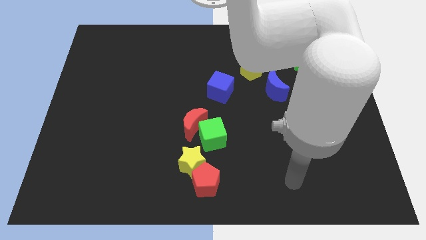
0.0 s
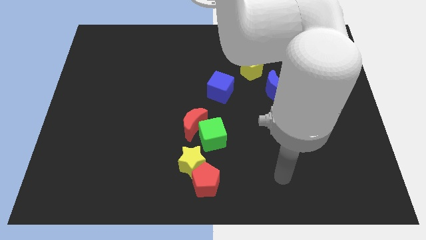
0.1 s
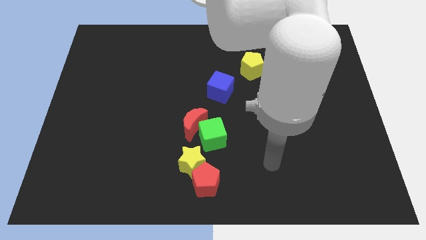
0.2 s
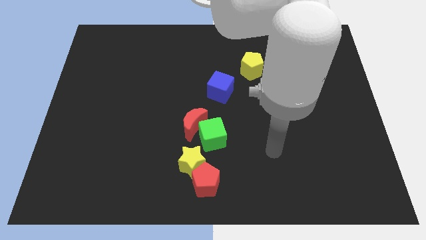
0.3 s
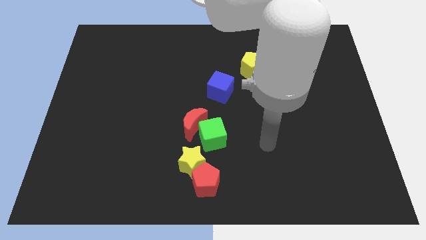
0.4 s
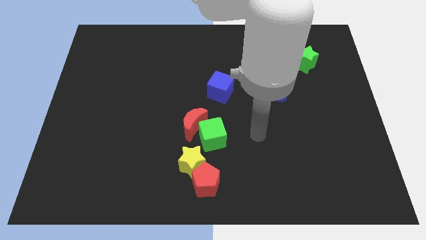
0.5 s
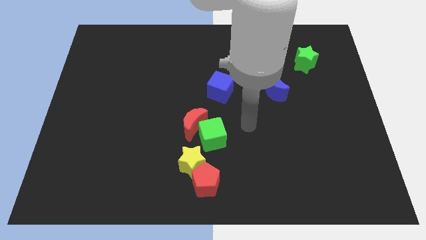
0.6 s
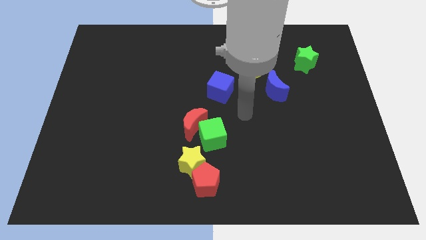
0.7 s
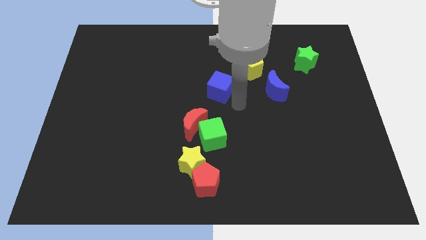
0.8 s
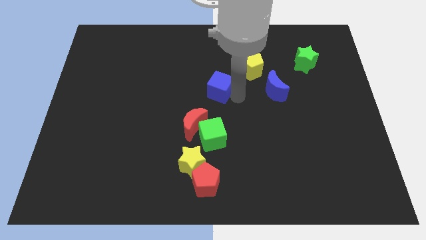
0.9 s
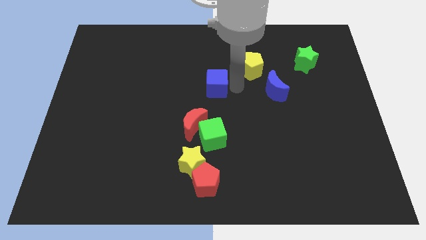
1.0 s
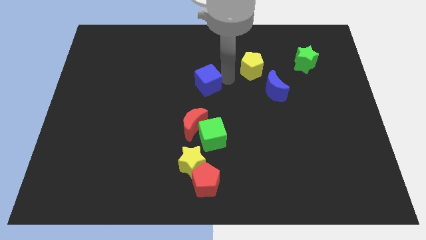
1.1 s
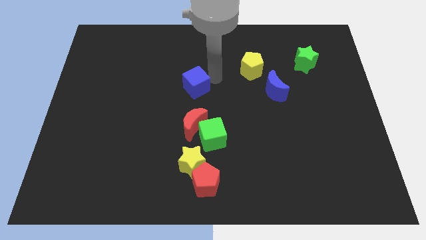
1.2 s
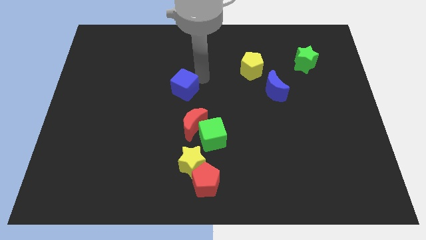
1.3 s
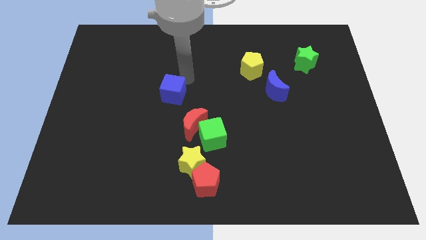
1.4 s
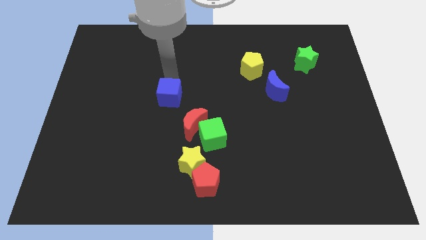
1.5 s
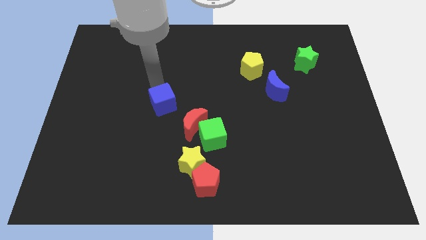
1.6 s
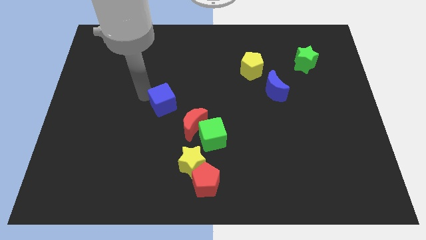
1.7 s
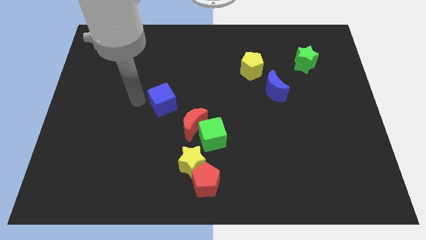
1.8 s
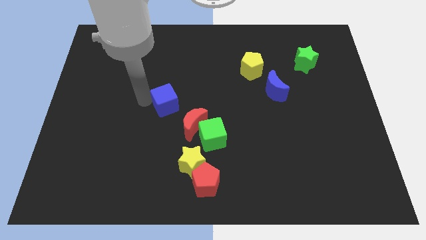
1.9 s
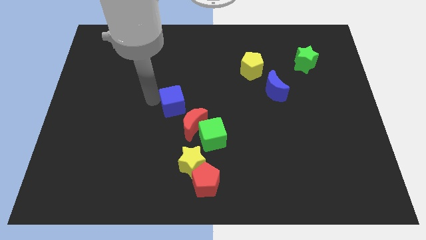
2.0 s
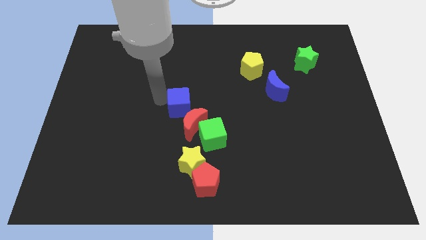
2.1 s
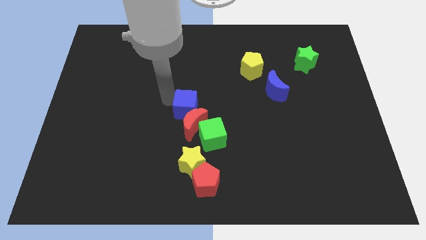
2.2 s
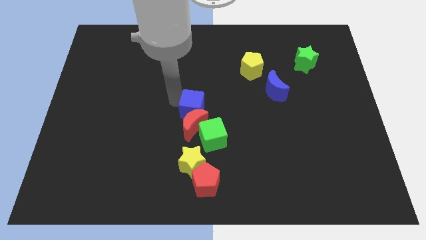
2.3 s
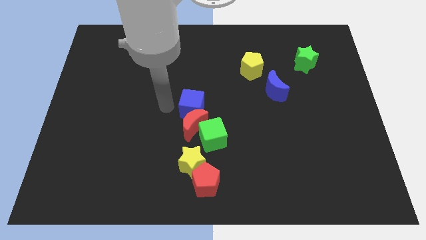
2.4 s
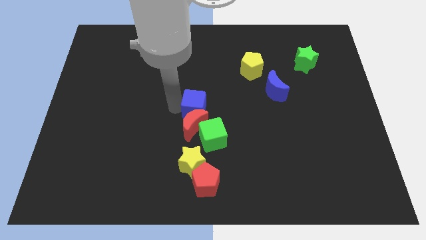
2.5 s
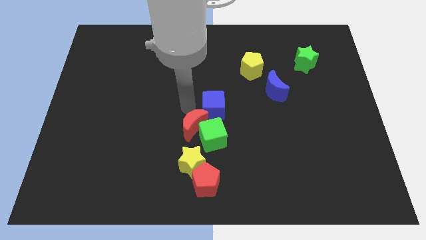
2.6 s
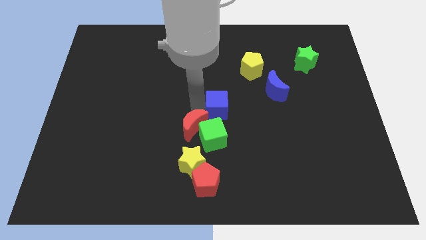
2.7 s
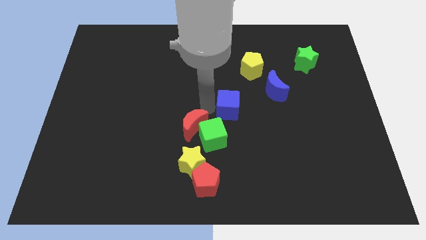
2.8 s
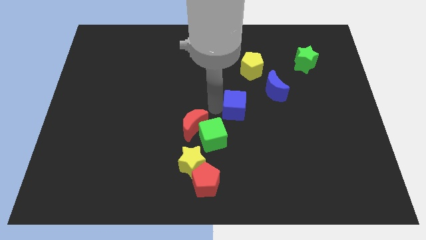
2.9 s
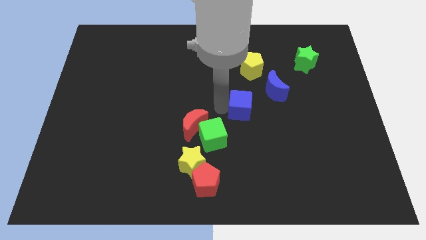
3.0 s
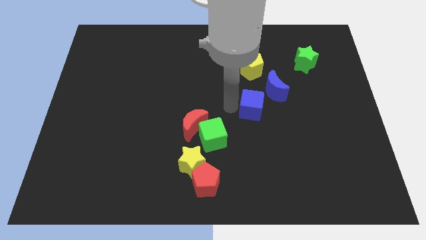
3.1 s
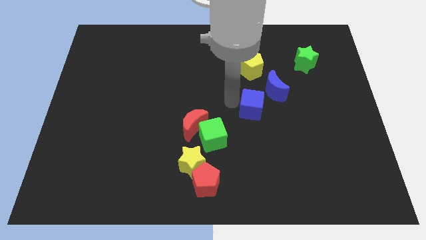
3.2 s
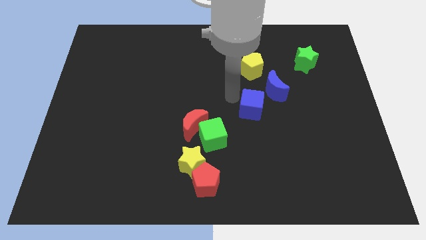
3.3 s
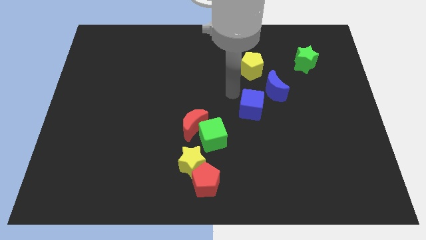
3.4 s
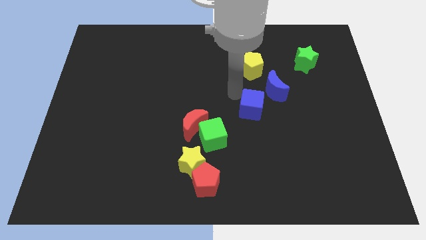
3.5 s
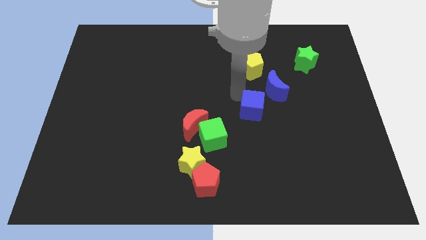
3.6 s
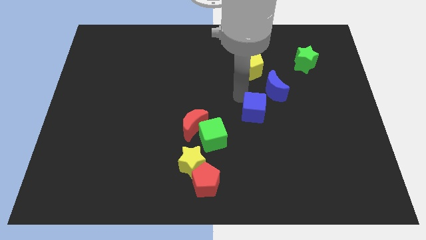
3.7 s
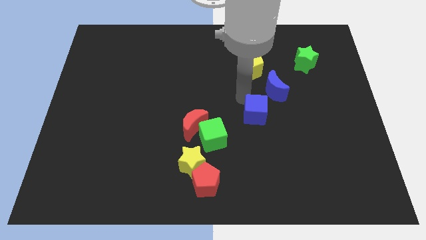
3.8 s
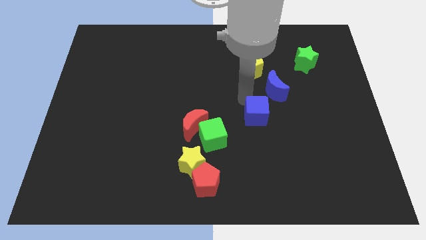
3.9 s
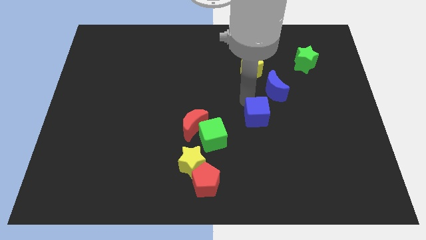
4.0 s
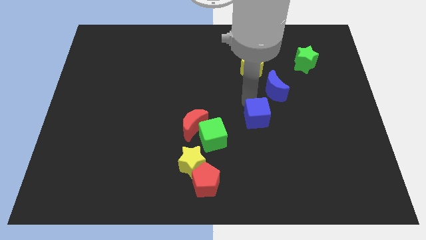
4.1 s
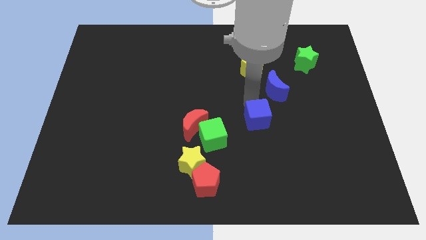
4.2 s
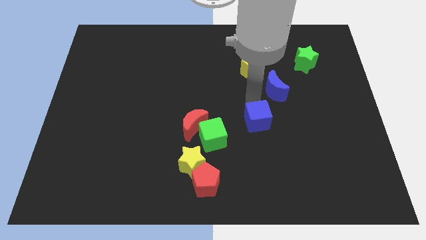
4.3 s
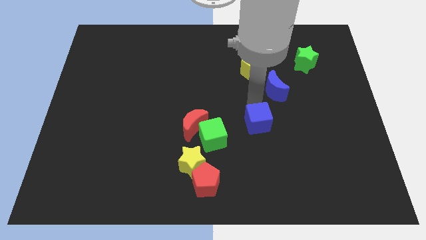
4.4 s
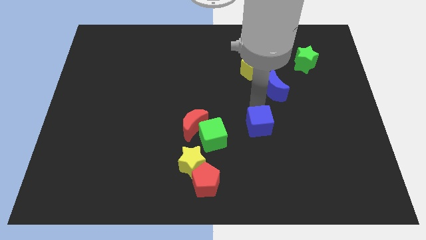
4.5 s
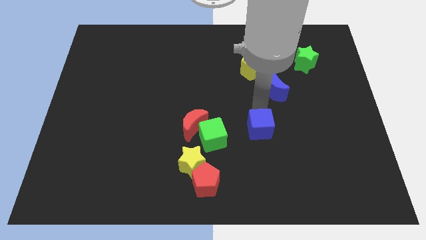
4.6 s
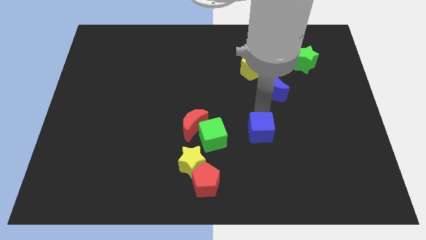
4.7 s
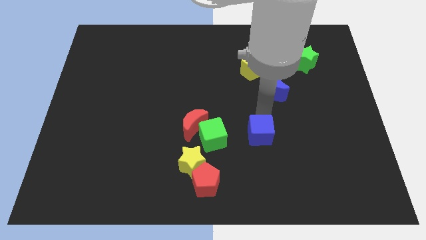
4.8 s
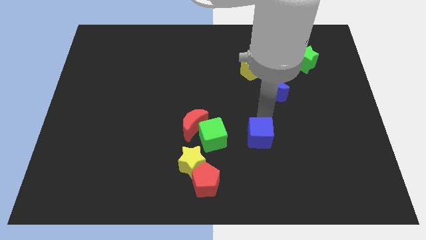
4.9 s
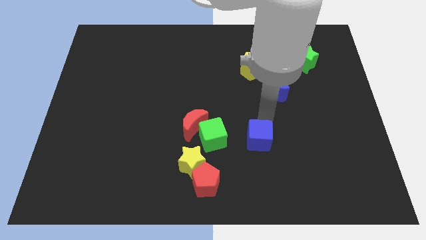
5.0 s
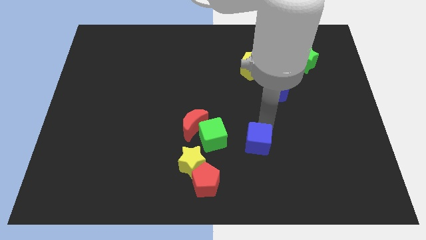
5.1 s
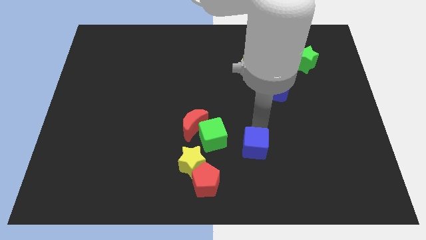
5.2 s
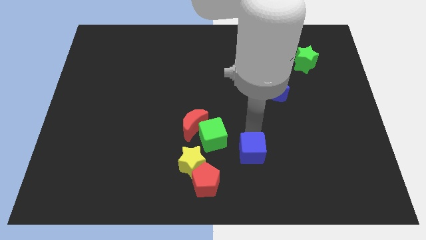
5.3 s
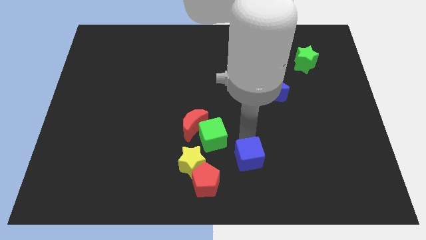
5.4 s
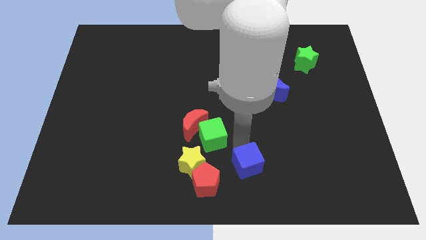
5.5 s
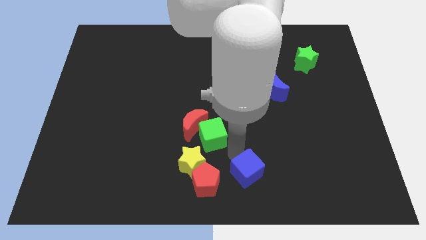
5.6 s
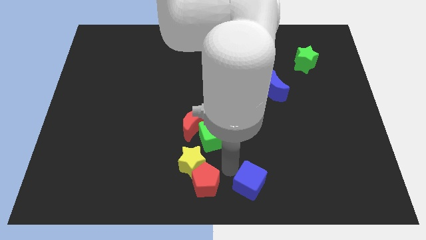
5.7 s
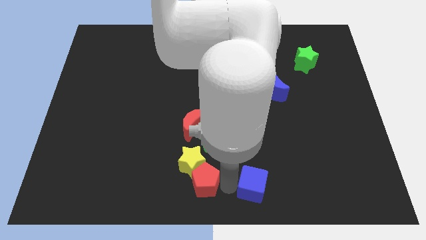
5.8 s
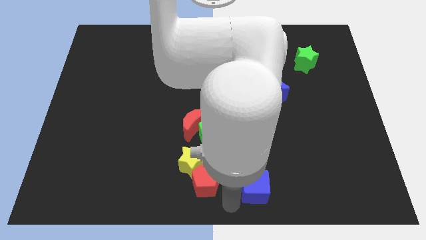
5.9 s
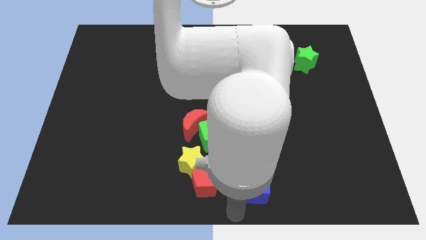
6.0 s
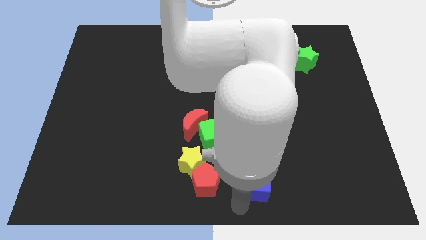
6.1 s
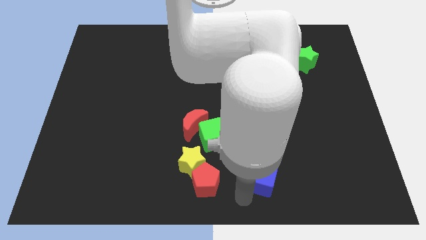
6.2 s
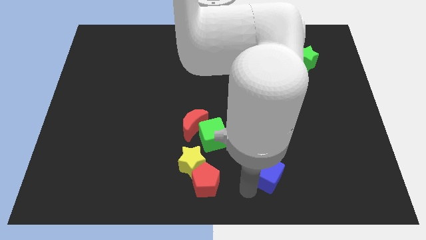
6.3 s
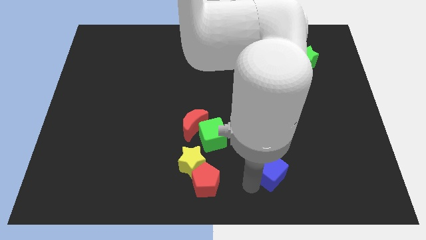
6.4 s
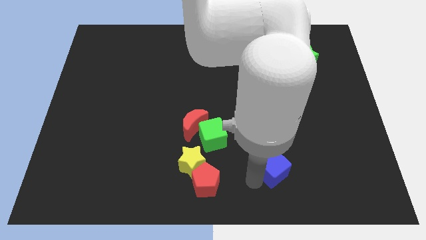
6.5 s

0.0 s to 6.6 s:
move the blue cube downwards and to the right diagonally

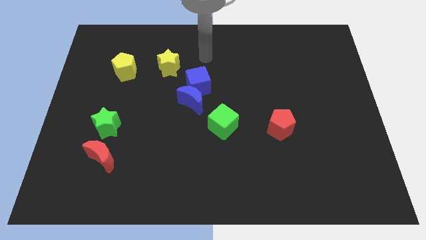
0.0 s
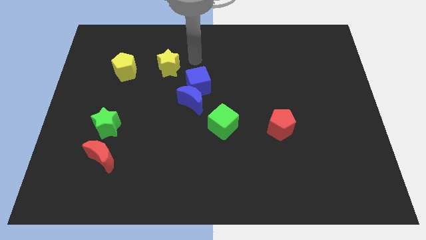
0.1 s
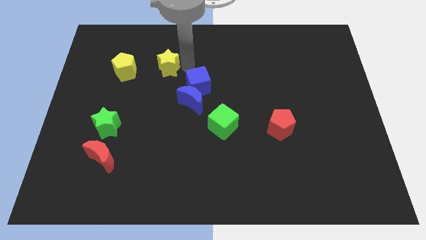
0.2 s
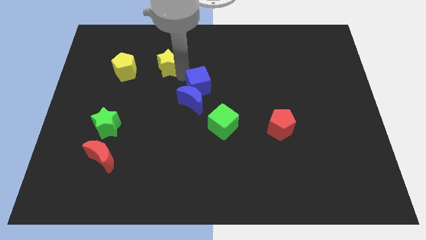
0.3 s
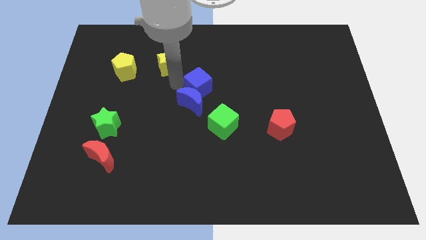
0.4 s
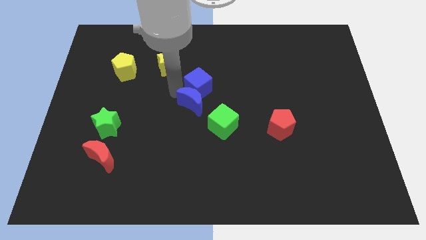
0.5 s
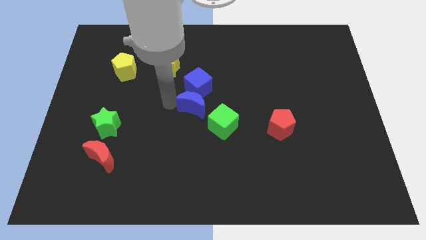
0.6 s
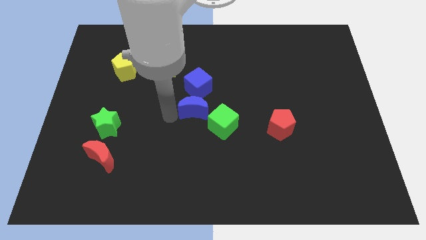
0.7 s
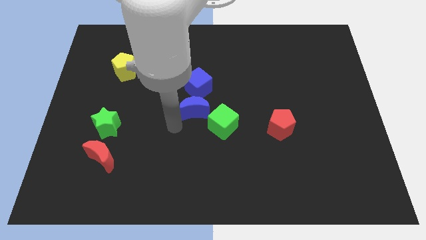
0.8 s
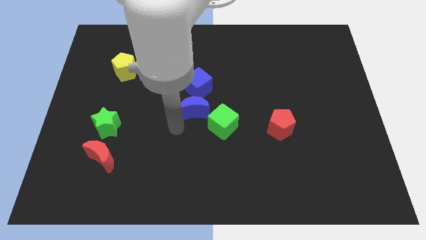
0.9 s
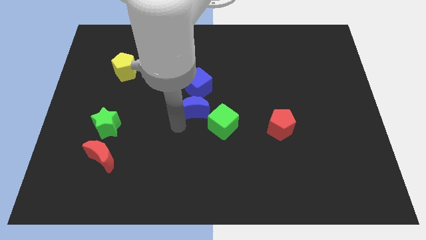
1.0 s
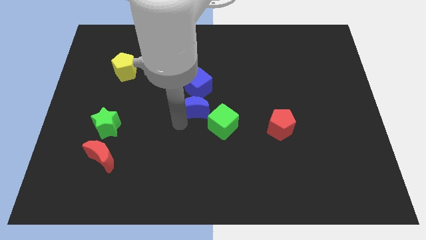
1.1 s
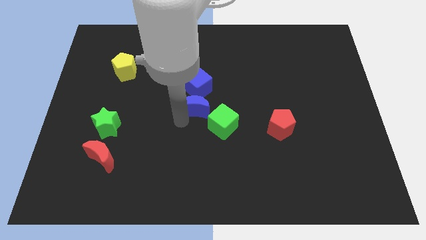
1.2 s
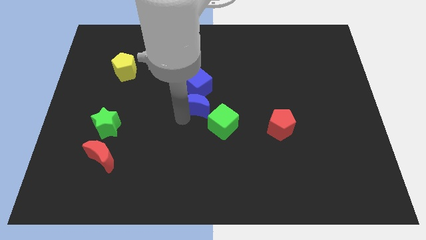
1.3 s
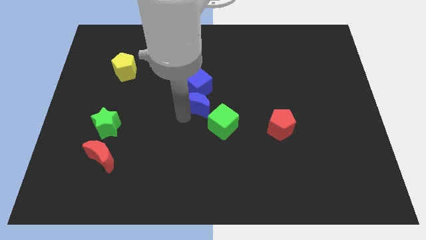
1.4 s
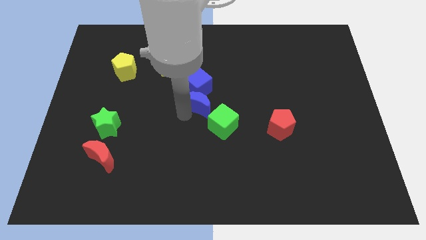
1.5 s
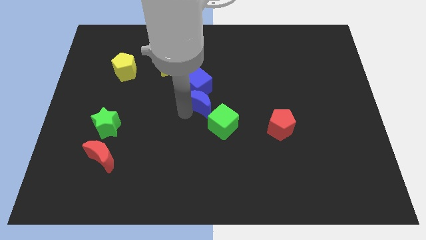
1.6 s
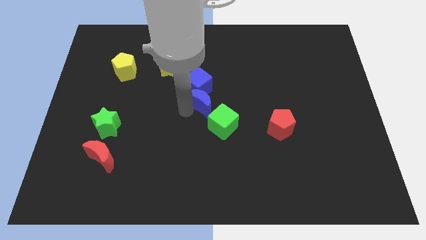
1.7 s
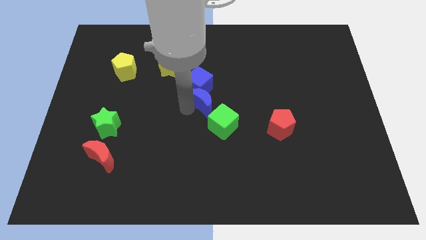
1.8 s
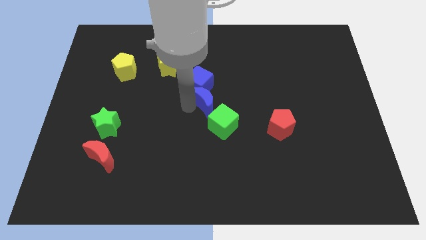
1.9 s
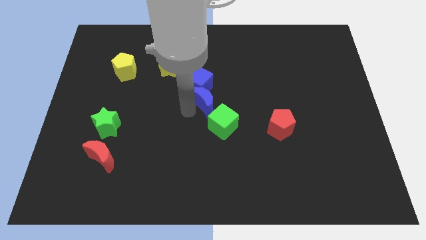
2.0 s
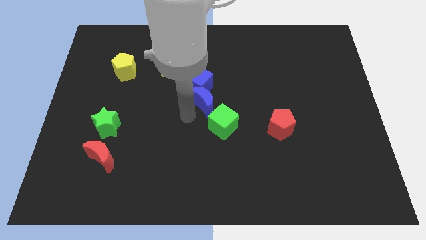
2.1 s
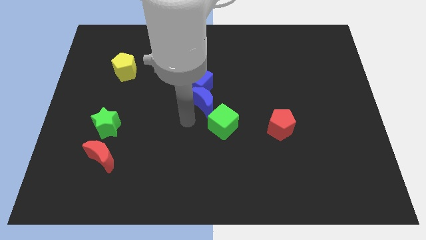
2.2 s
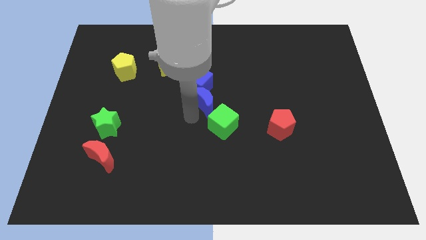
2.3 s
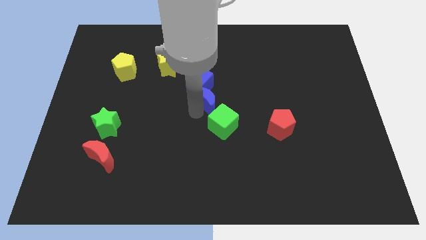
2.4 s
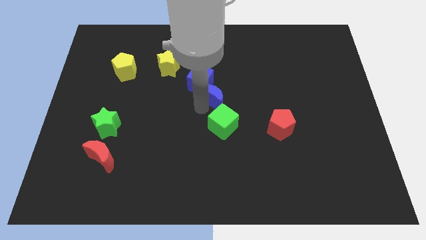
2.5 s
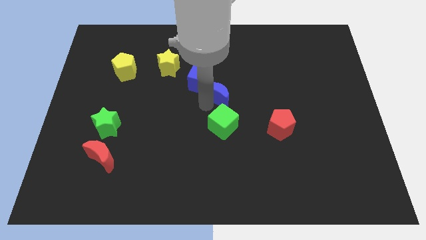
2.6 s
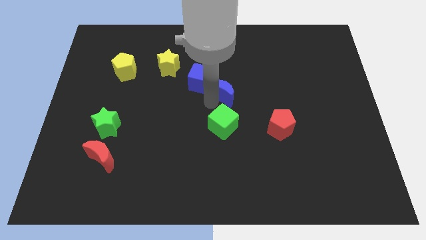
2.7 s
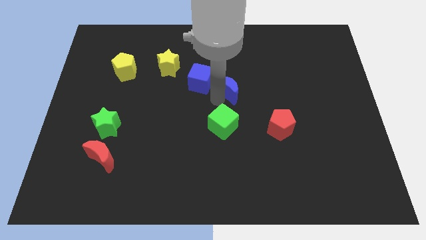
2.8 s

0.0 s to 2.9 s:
slide the blue moon up and right diagonally a little bit
